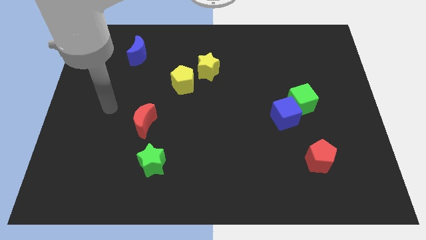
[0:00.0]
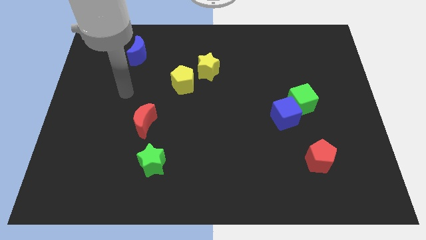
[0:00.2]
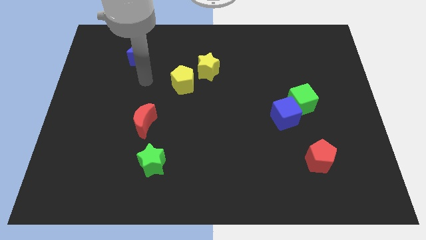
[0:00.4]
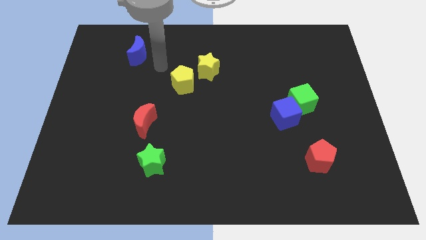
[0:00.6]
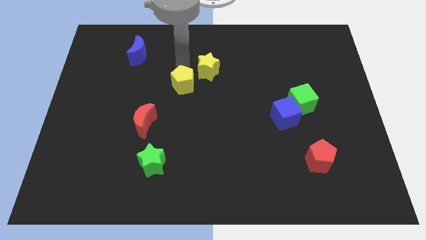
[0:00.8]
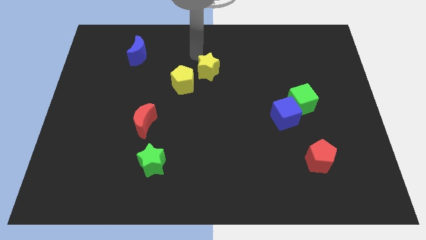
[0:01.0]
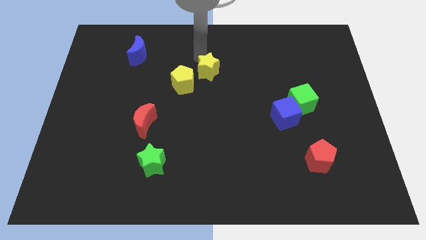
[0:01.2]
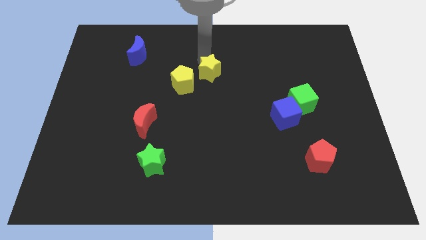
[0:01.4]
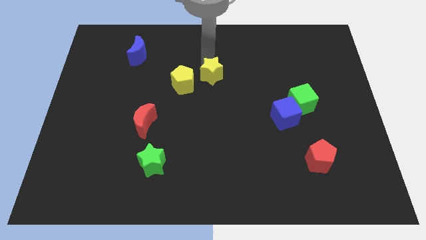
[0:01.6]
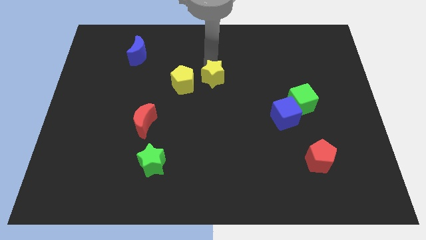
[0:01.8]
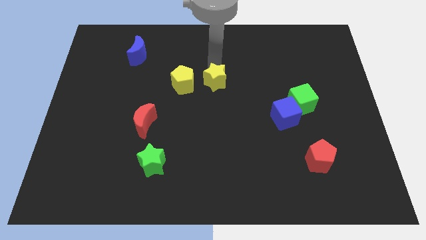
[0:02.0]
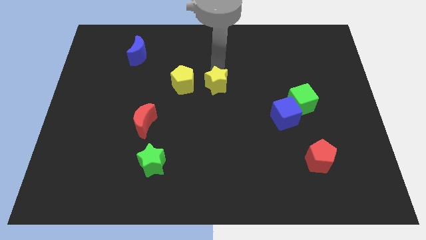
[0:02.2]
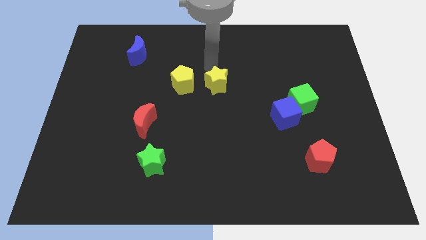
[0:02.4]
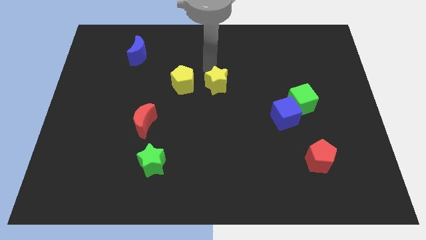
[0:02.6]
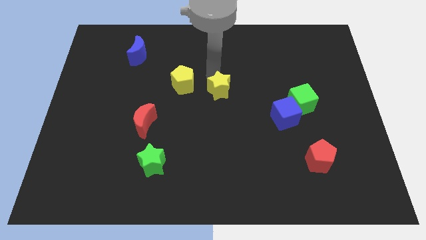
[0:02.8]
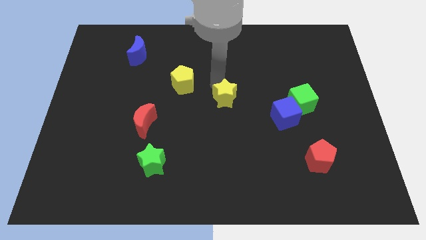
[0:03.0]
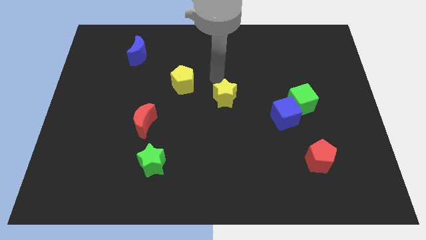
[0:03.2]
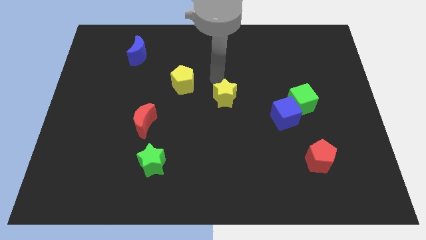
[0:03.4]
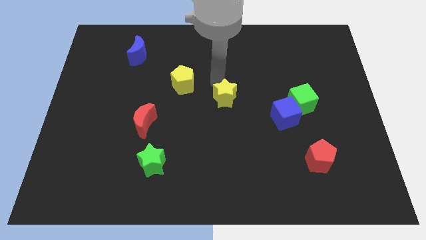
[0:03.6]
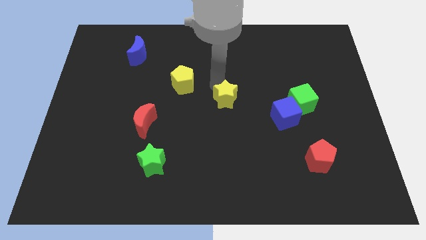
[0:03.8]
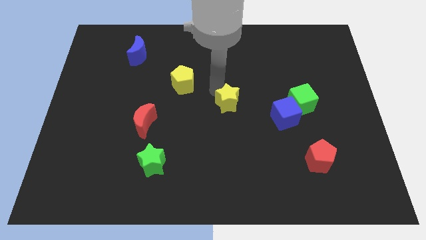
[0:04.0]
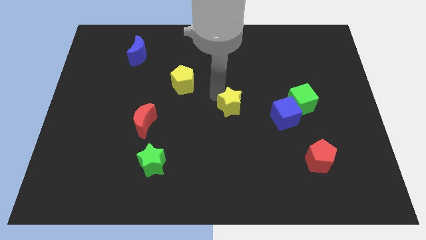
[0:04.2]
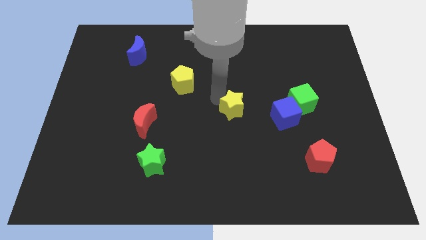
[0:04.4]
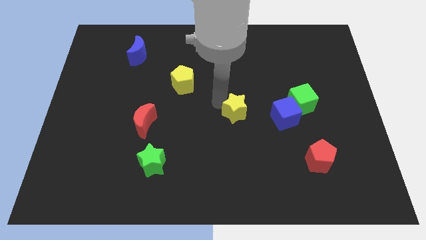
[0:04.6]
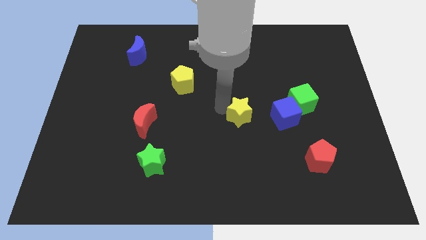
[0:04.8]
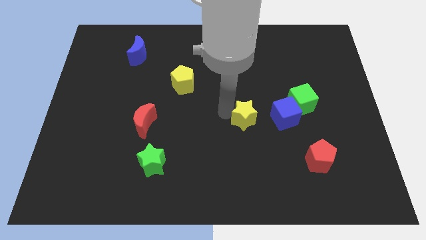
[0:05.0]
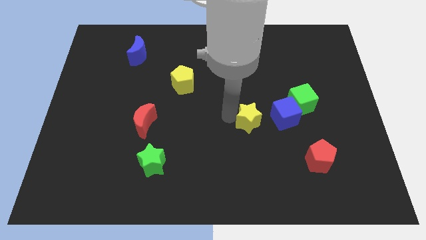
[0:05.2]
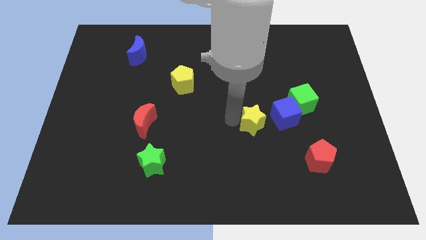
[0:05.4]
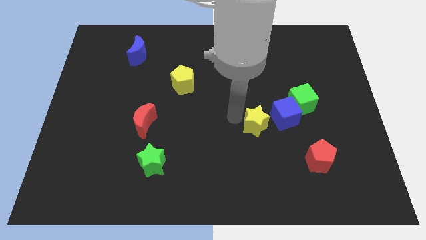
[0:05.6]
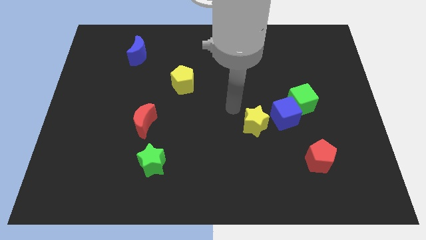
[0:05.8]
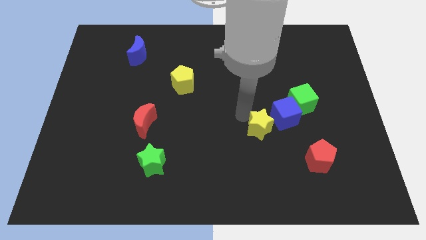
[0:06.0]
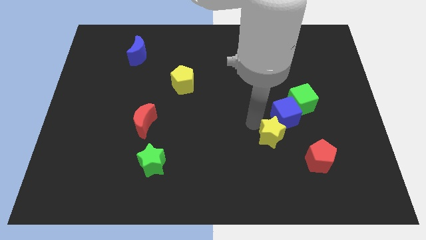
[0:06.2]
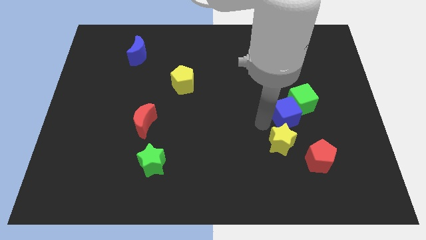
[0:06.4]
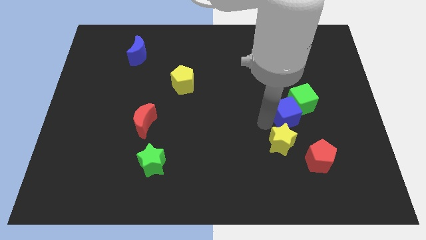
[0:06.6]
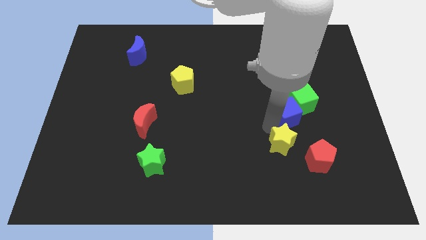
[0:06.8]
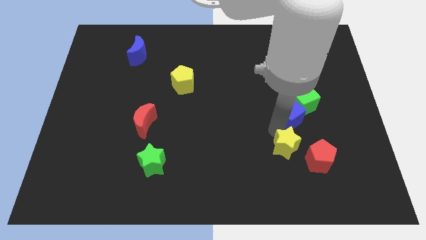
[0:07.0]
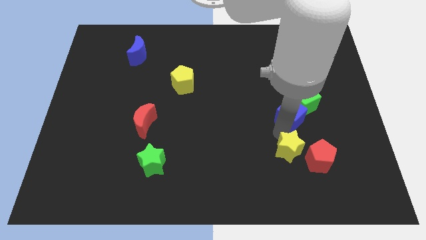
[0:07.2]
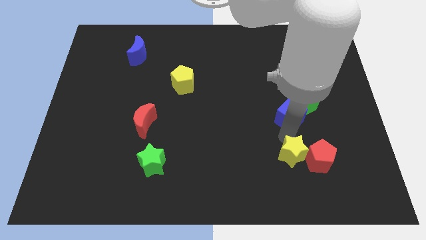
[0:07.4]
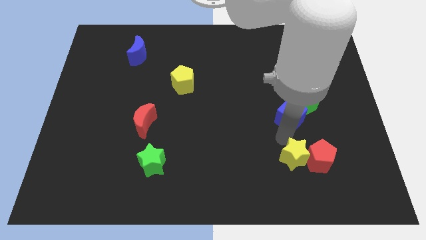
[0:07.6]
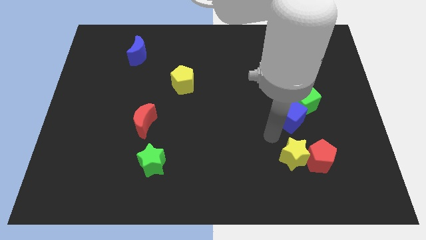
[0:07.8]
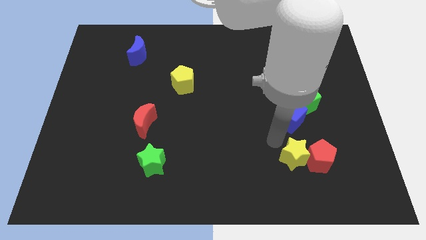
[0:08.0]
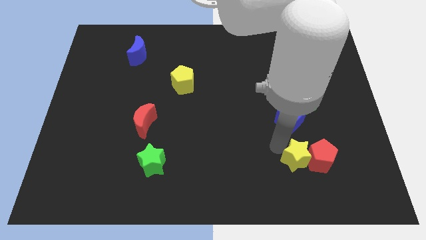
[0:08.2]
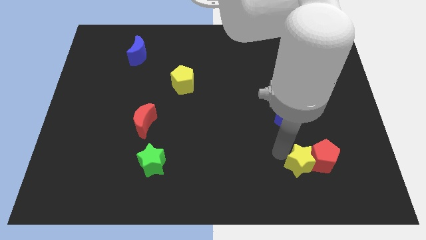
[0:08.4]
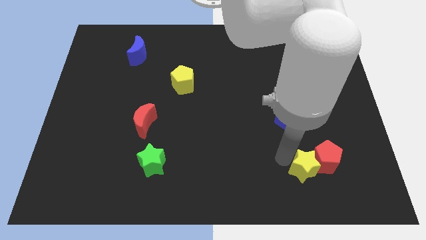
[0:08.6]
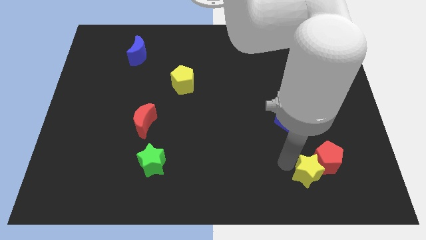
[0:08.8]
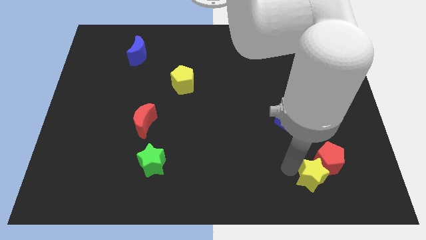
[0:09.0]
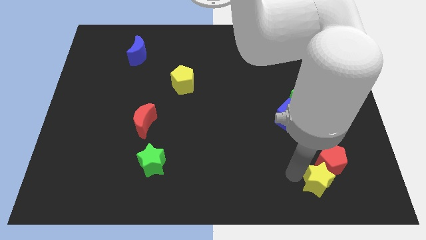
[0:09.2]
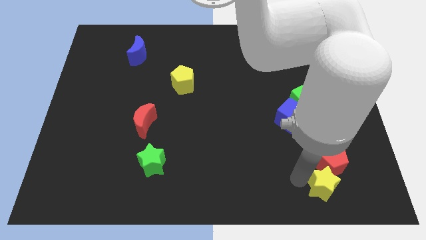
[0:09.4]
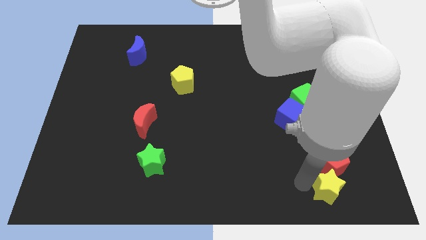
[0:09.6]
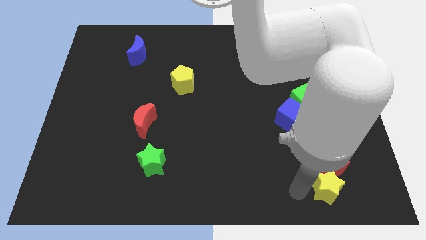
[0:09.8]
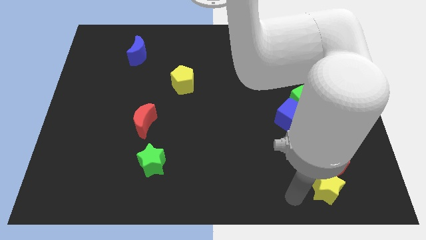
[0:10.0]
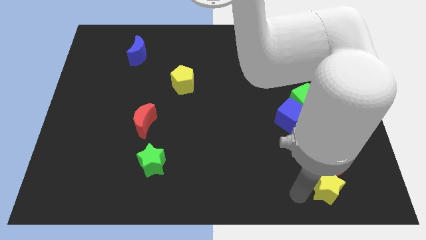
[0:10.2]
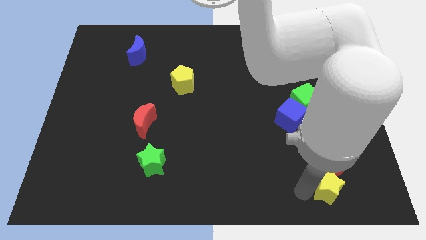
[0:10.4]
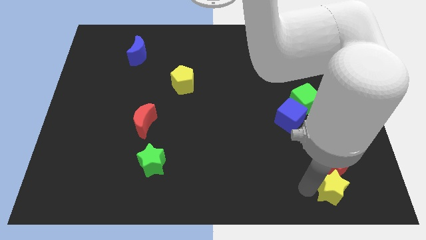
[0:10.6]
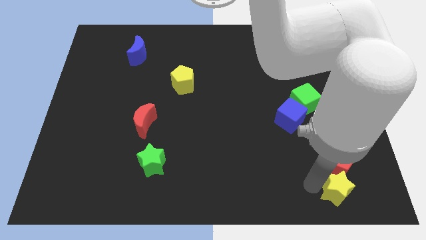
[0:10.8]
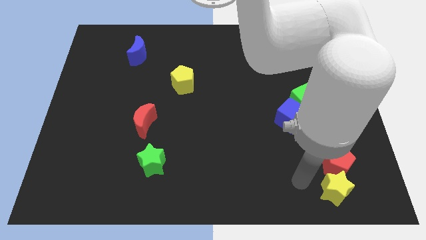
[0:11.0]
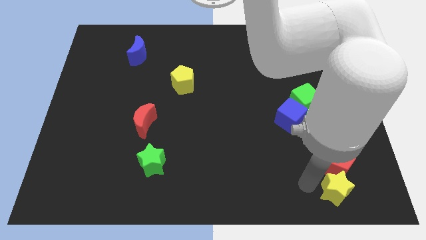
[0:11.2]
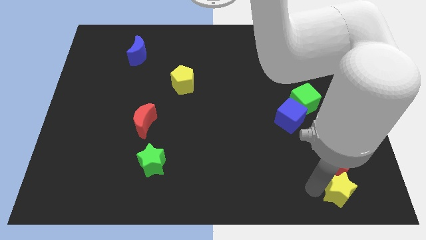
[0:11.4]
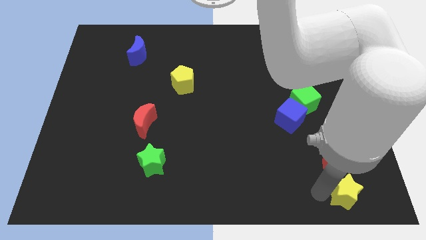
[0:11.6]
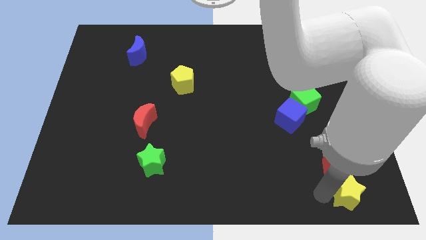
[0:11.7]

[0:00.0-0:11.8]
push the yellow star to the bottom right
